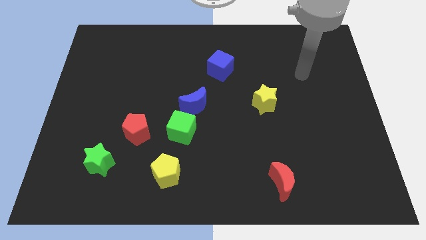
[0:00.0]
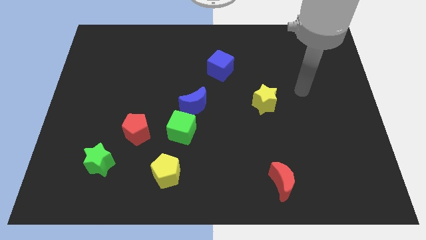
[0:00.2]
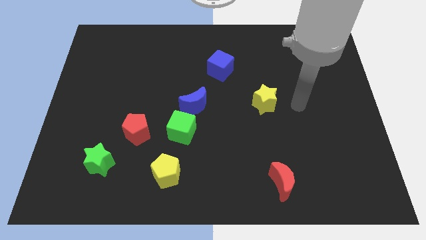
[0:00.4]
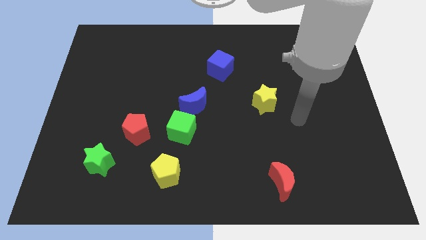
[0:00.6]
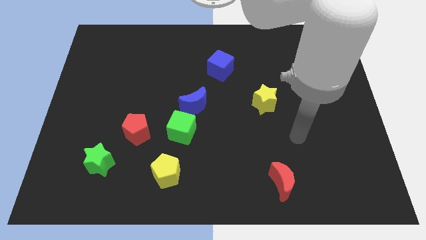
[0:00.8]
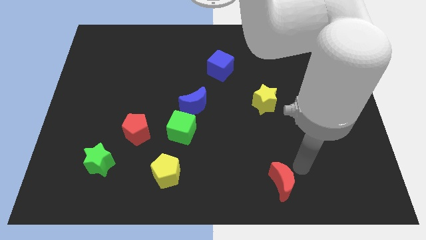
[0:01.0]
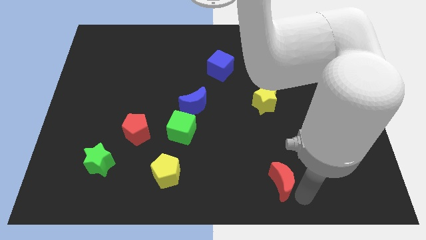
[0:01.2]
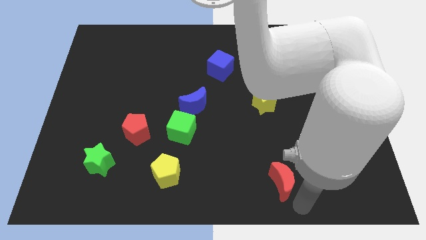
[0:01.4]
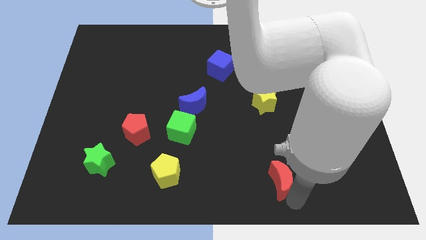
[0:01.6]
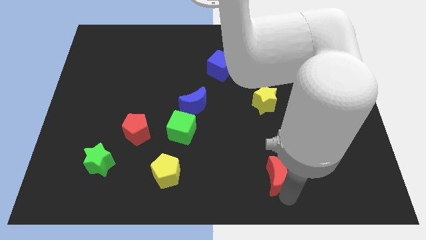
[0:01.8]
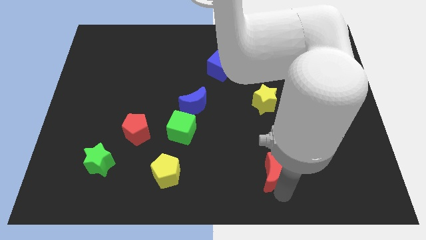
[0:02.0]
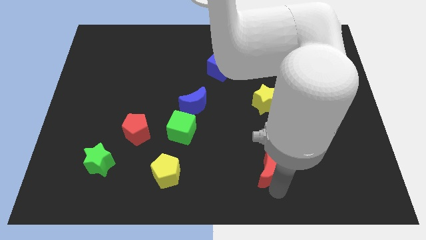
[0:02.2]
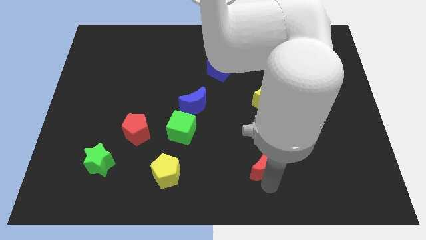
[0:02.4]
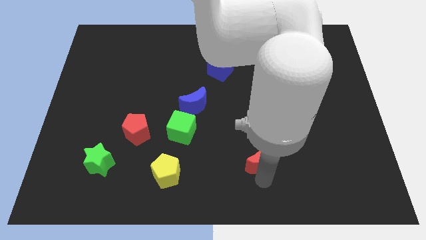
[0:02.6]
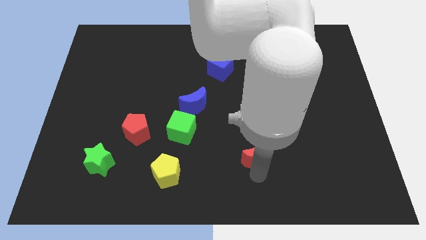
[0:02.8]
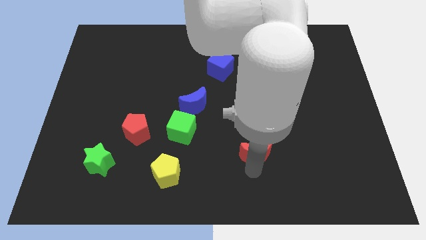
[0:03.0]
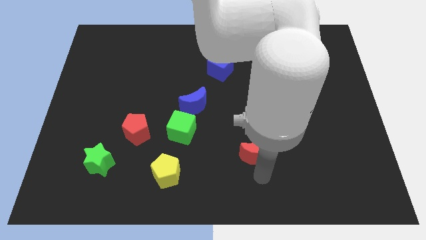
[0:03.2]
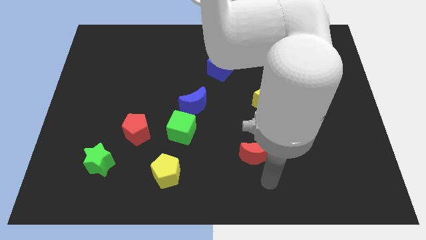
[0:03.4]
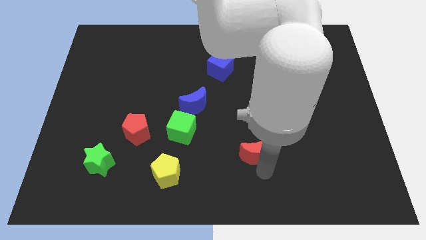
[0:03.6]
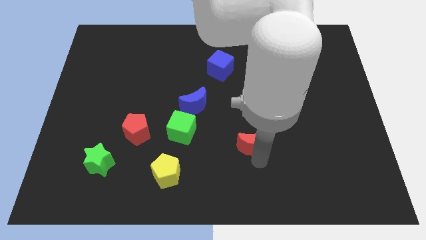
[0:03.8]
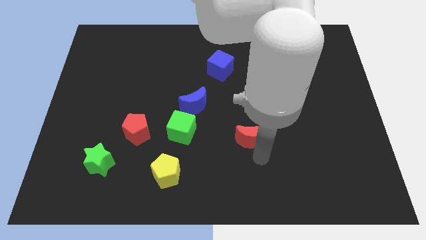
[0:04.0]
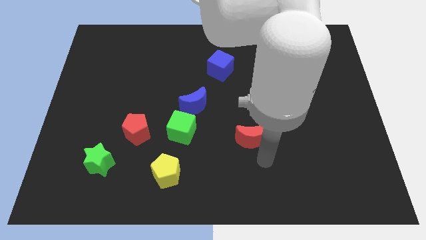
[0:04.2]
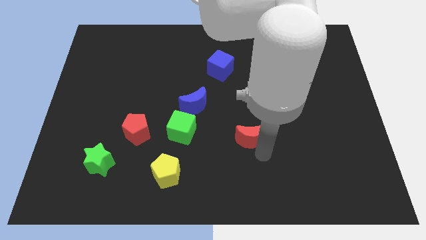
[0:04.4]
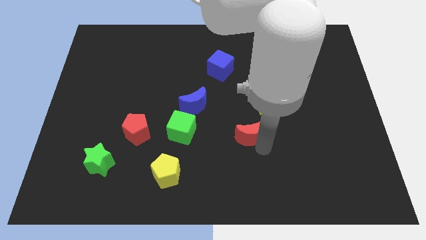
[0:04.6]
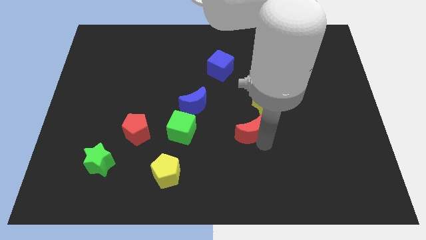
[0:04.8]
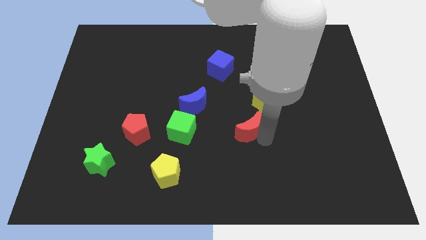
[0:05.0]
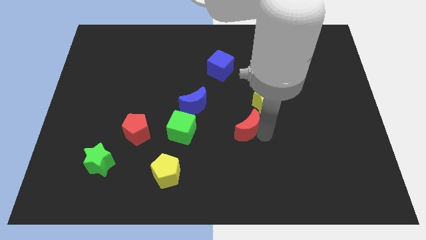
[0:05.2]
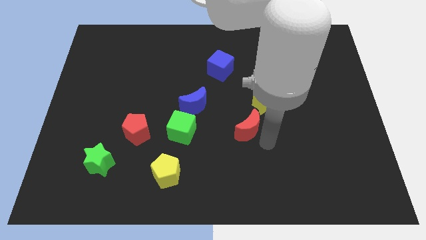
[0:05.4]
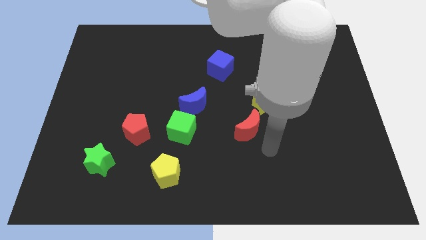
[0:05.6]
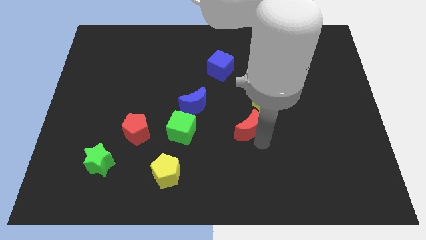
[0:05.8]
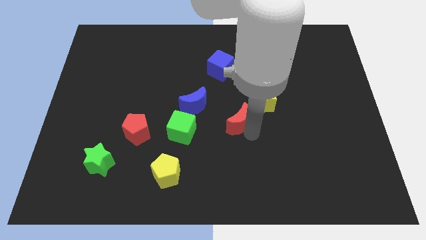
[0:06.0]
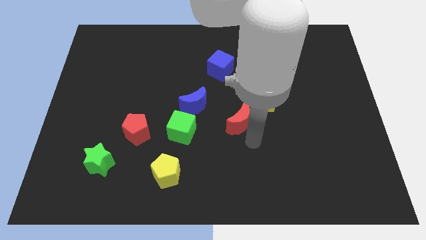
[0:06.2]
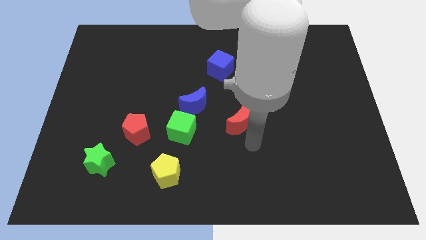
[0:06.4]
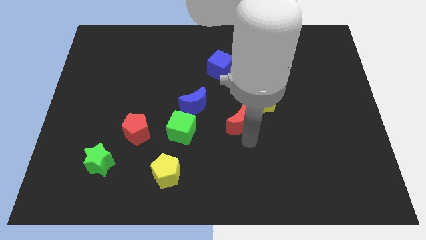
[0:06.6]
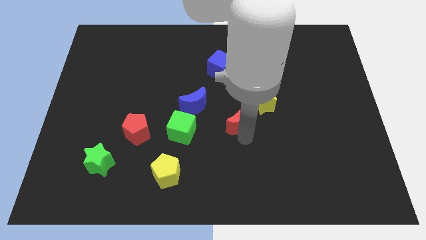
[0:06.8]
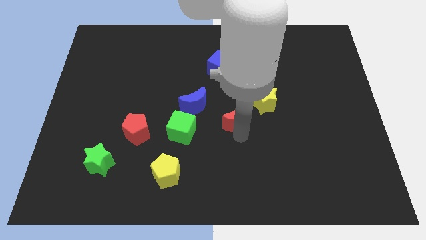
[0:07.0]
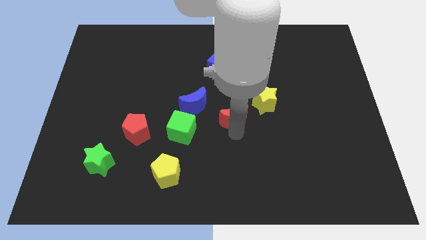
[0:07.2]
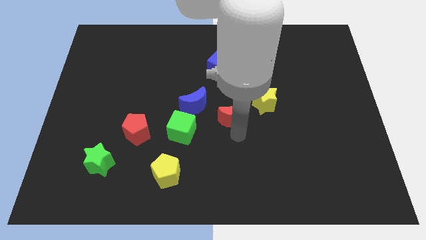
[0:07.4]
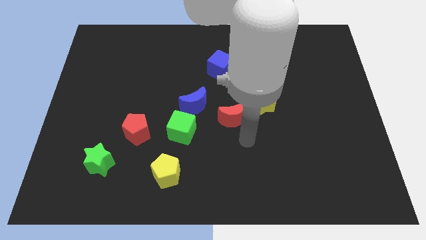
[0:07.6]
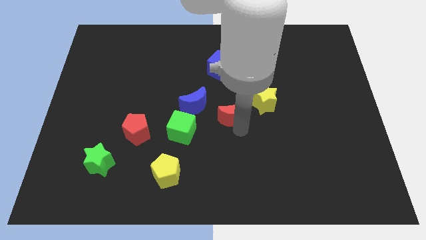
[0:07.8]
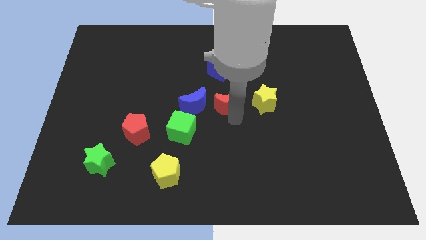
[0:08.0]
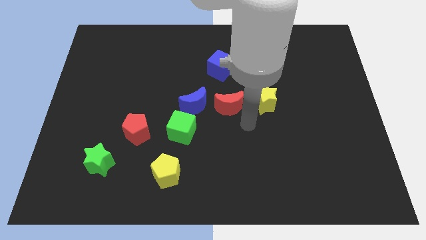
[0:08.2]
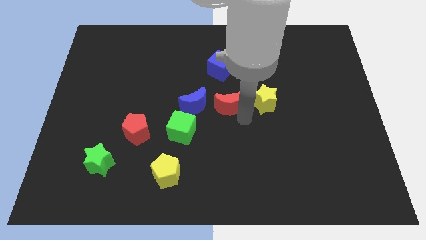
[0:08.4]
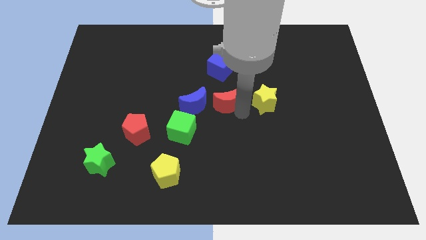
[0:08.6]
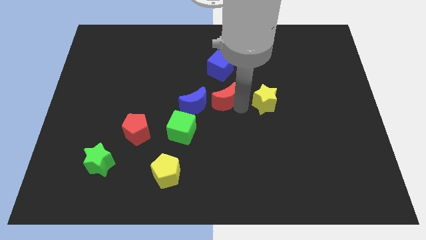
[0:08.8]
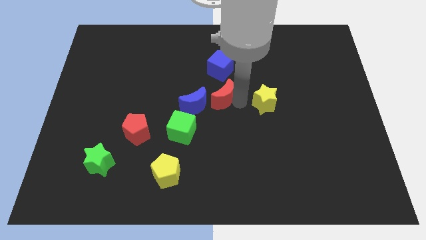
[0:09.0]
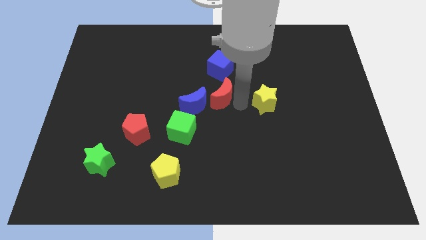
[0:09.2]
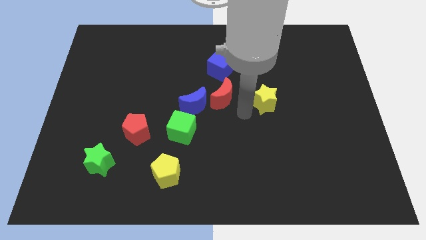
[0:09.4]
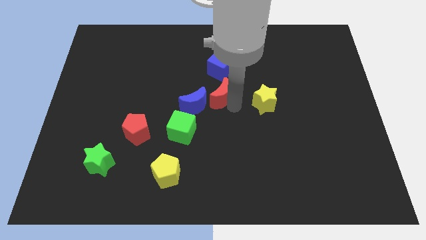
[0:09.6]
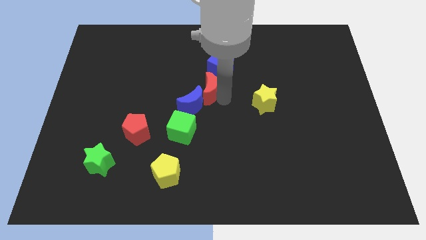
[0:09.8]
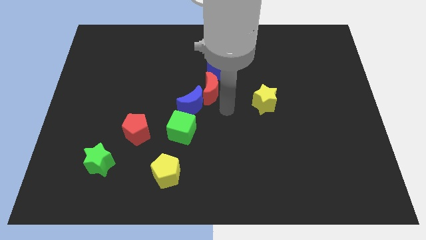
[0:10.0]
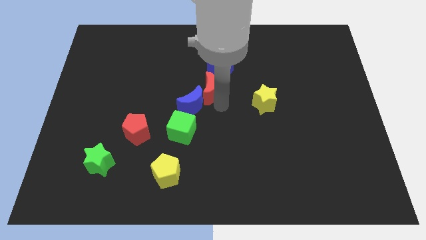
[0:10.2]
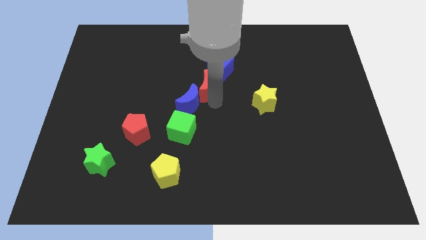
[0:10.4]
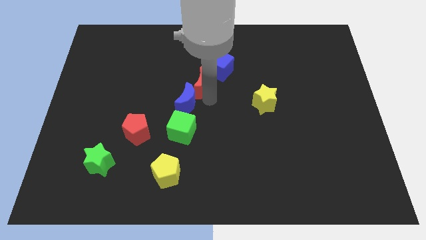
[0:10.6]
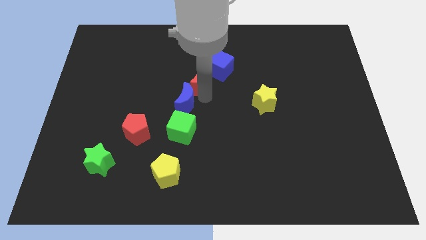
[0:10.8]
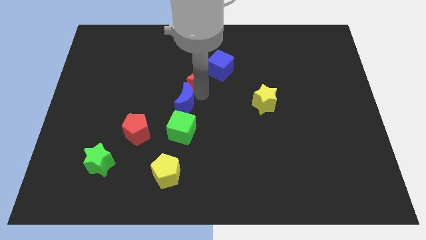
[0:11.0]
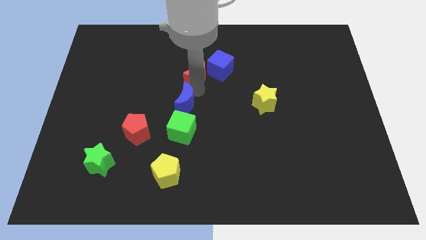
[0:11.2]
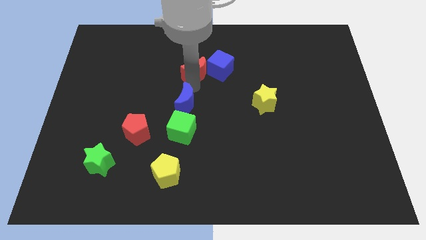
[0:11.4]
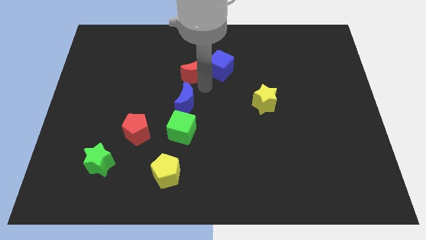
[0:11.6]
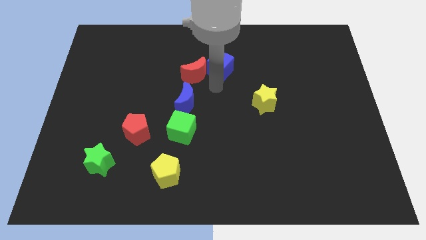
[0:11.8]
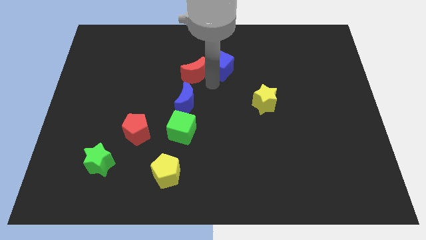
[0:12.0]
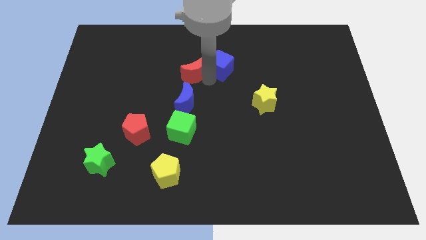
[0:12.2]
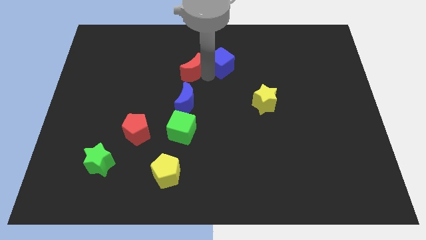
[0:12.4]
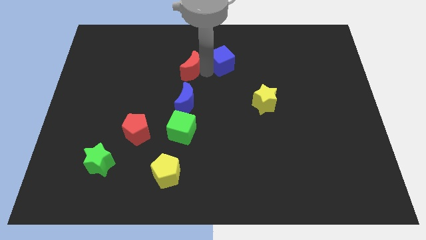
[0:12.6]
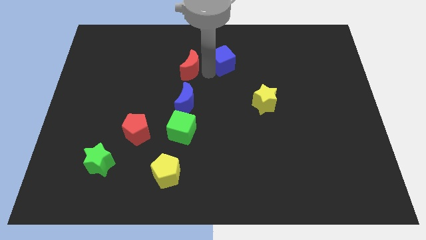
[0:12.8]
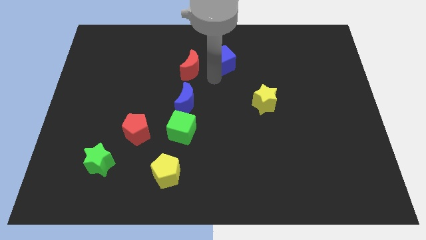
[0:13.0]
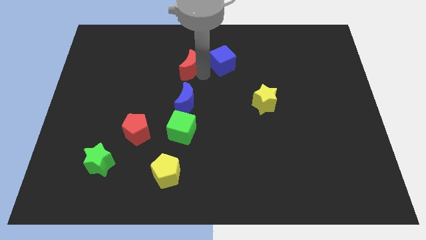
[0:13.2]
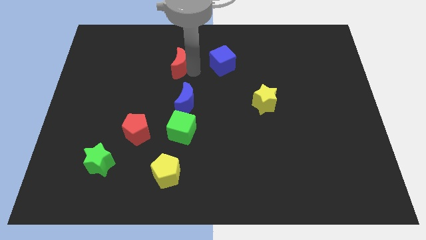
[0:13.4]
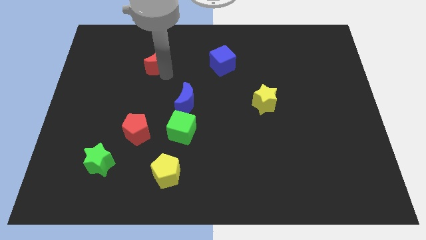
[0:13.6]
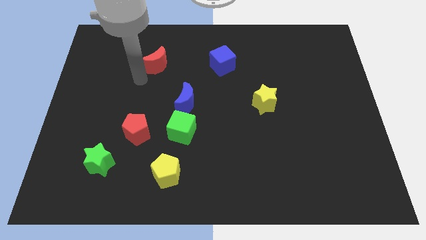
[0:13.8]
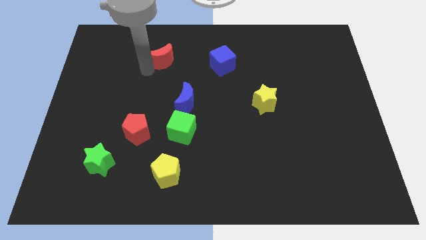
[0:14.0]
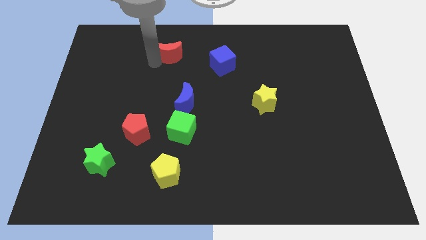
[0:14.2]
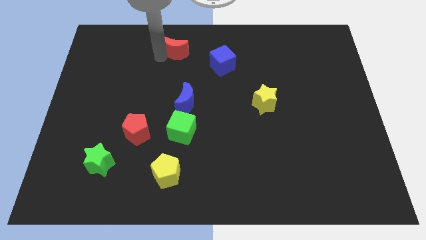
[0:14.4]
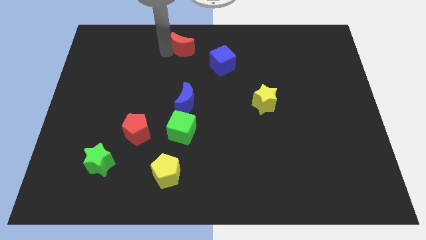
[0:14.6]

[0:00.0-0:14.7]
move the red moon to the top side
